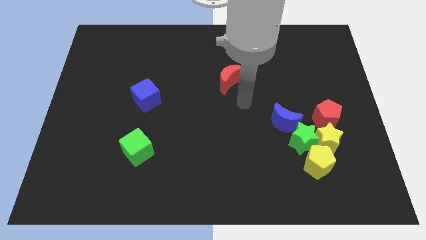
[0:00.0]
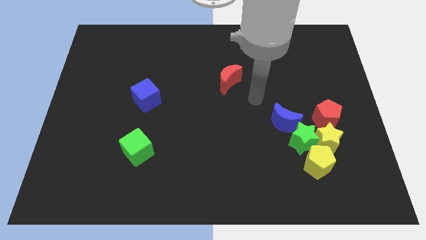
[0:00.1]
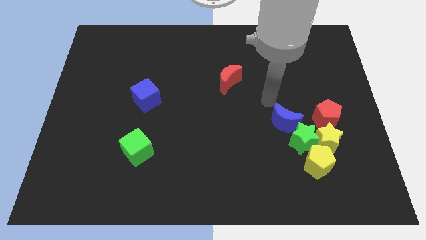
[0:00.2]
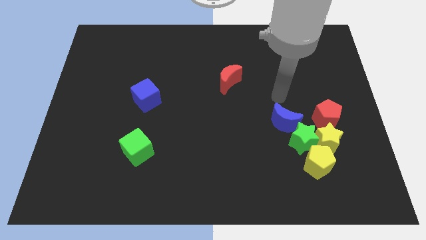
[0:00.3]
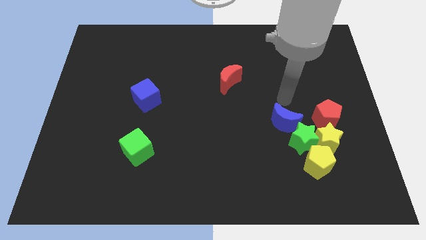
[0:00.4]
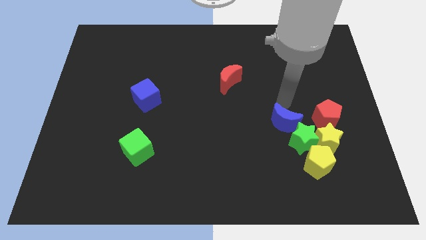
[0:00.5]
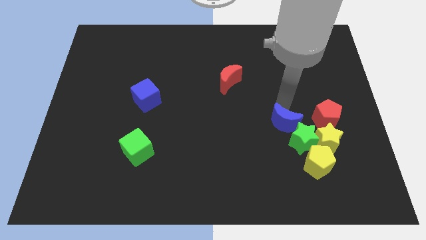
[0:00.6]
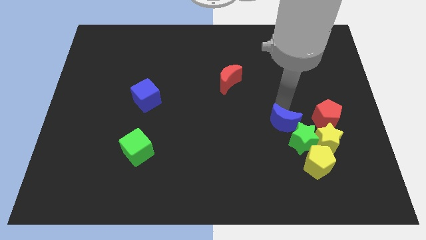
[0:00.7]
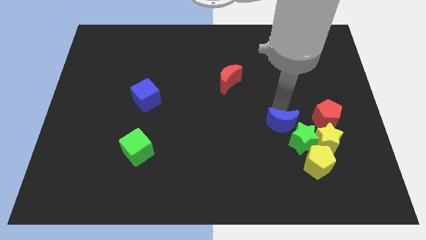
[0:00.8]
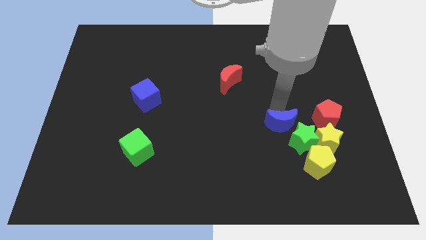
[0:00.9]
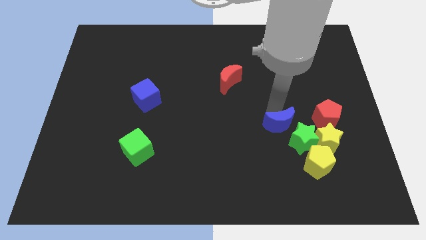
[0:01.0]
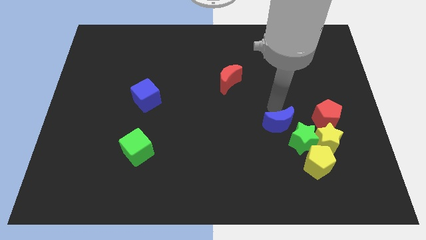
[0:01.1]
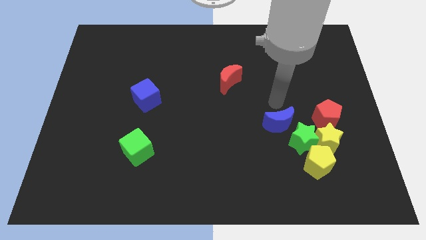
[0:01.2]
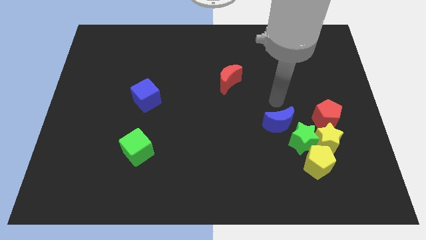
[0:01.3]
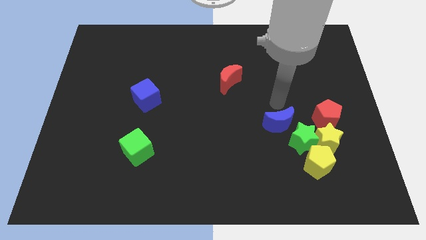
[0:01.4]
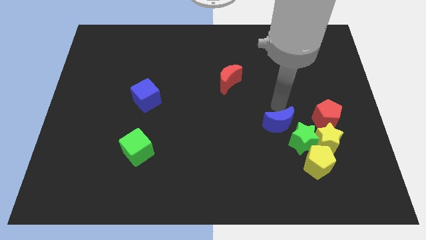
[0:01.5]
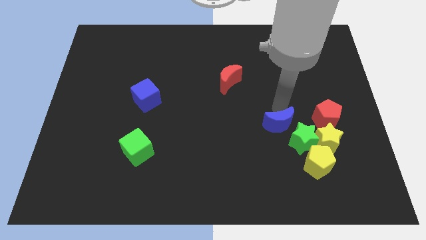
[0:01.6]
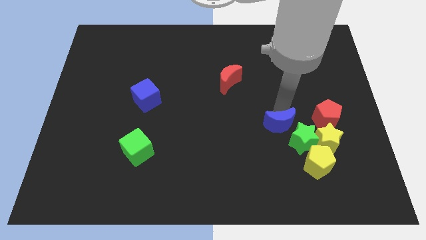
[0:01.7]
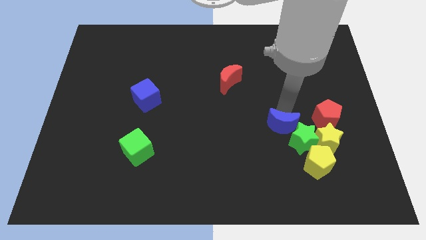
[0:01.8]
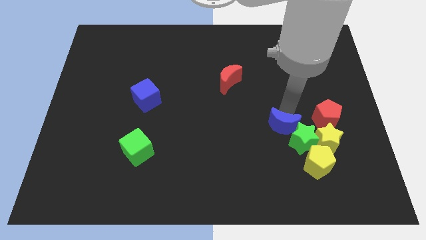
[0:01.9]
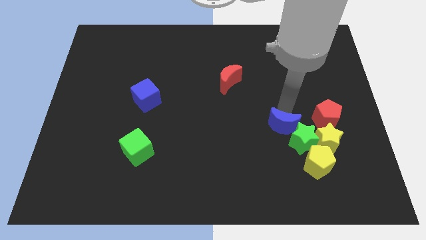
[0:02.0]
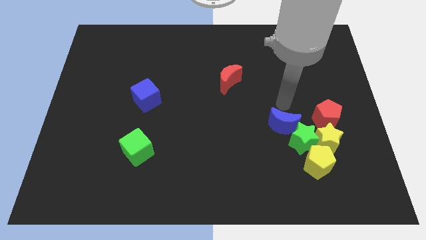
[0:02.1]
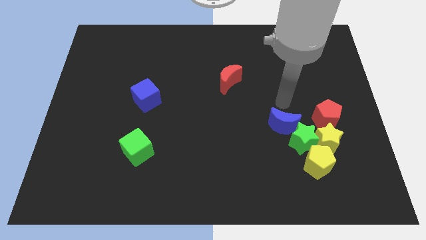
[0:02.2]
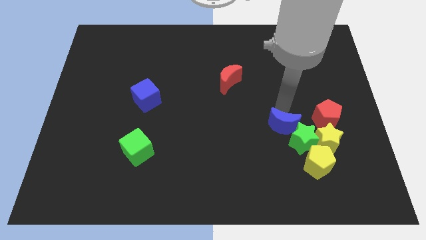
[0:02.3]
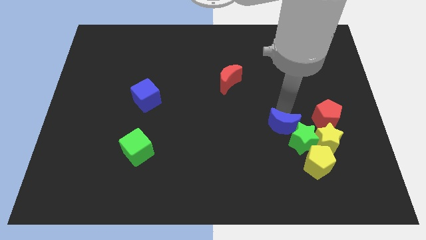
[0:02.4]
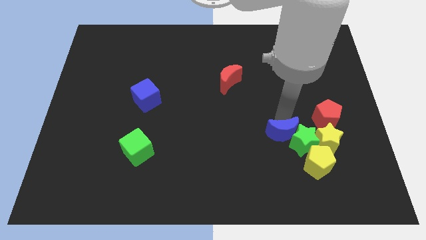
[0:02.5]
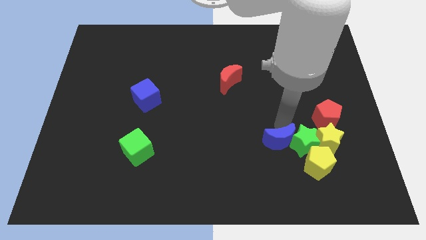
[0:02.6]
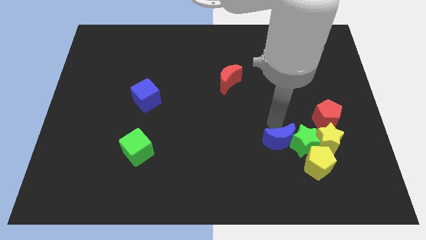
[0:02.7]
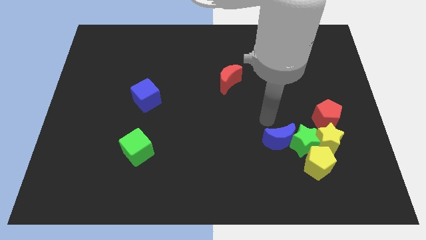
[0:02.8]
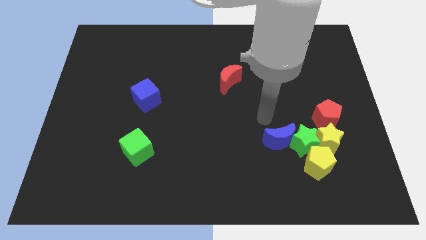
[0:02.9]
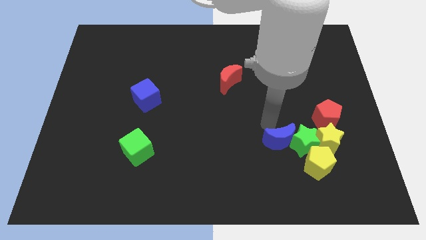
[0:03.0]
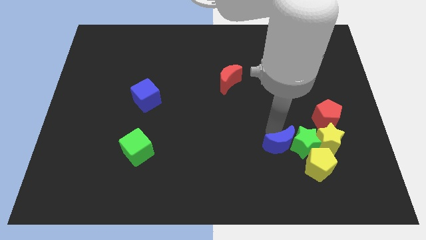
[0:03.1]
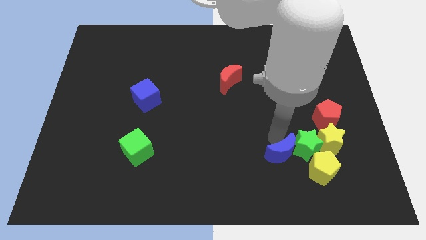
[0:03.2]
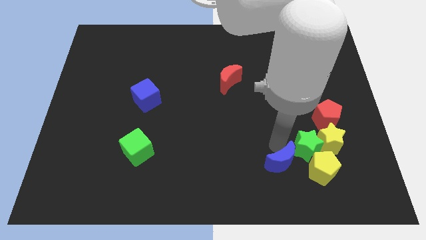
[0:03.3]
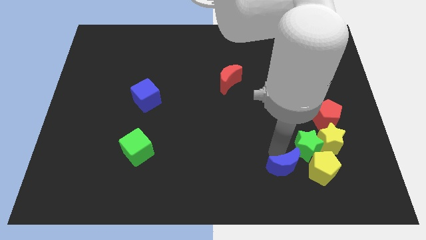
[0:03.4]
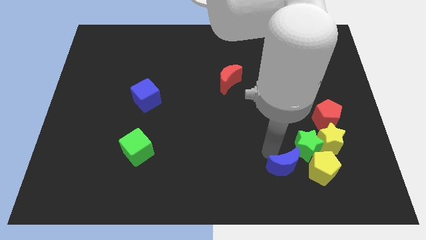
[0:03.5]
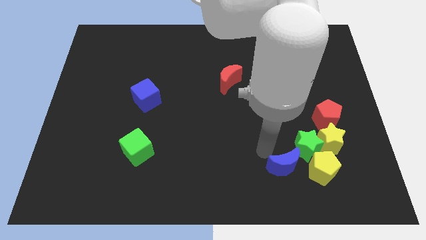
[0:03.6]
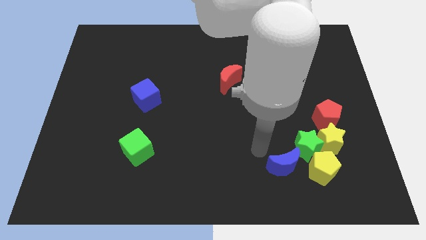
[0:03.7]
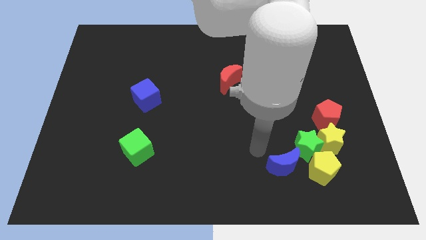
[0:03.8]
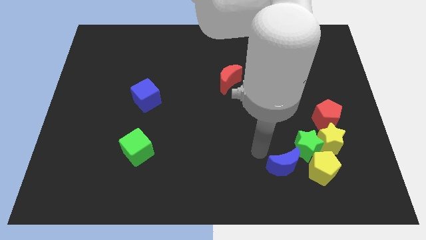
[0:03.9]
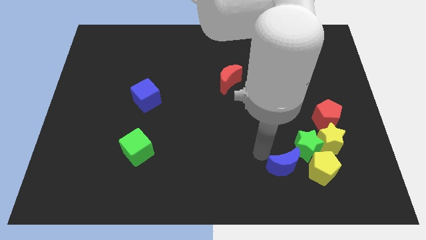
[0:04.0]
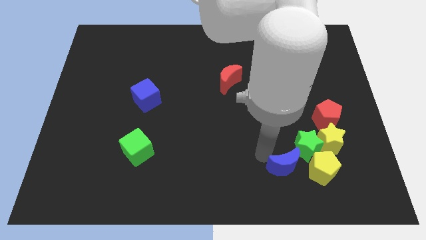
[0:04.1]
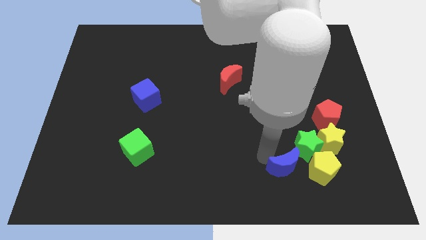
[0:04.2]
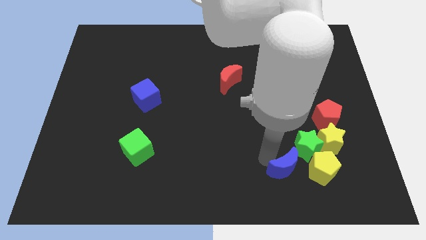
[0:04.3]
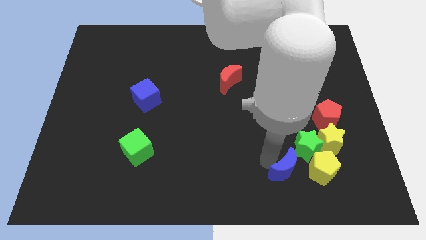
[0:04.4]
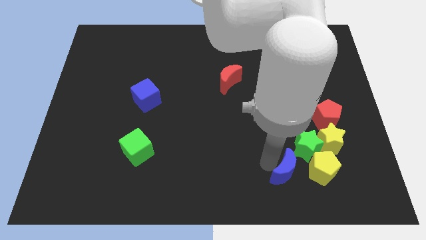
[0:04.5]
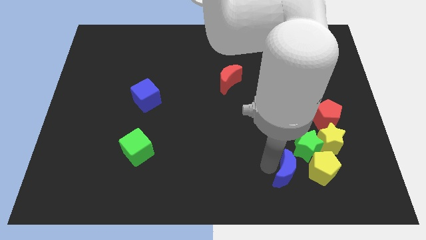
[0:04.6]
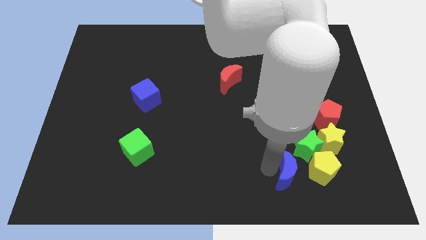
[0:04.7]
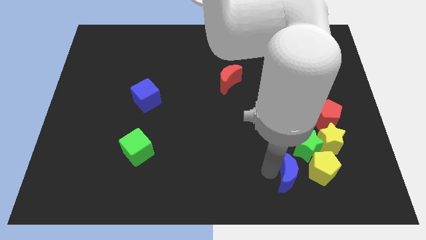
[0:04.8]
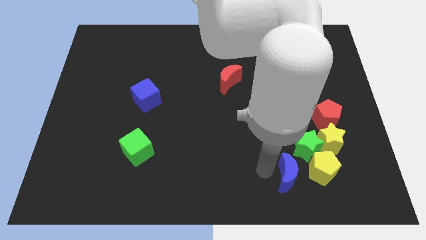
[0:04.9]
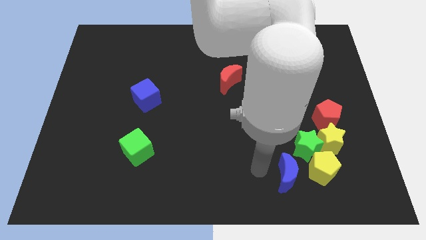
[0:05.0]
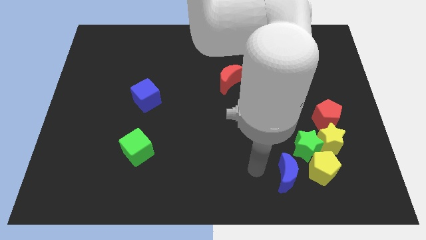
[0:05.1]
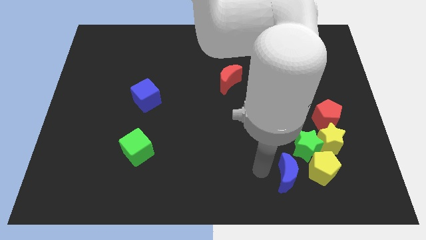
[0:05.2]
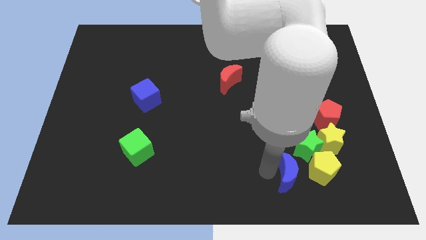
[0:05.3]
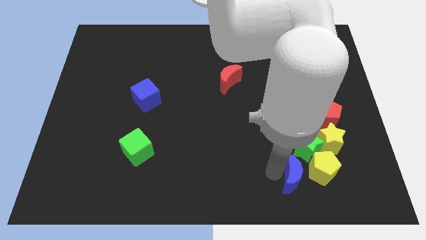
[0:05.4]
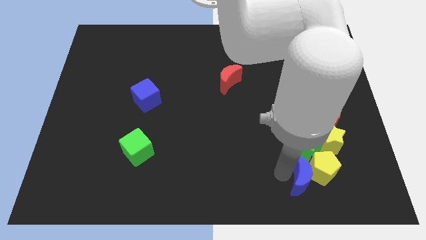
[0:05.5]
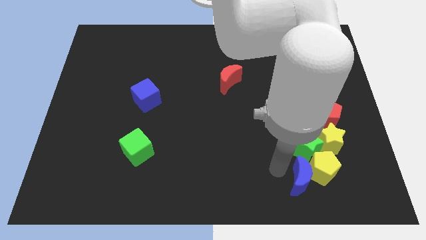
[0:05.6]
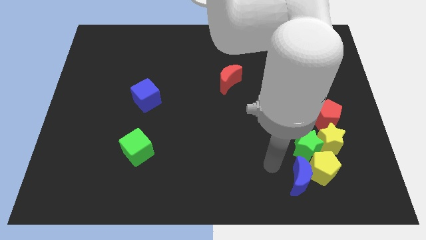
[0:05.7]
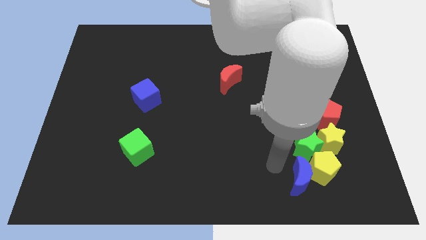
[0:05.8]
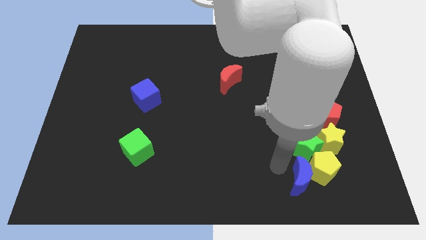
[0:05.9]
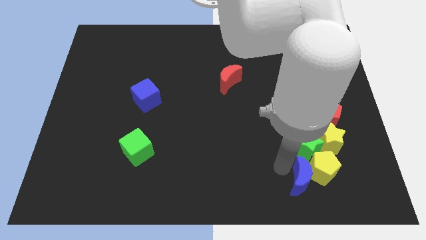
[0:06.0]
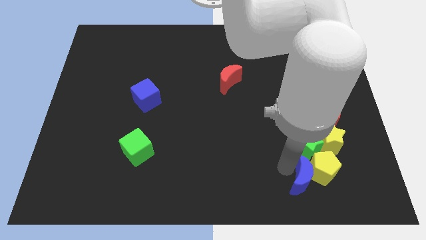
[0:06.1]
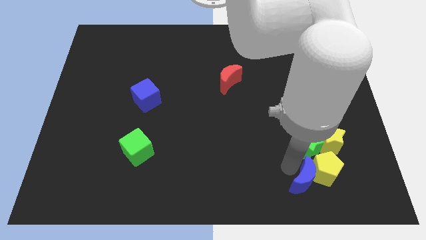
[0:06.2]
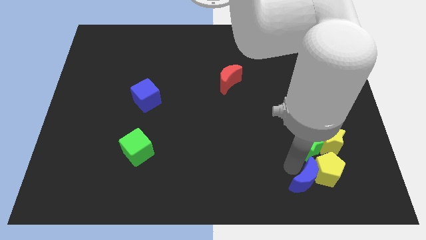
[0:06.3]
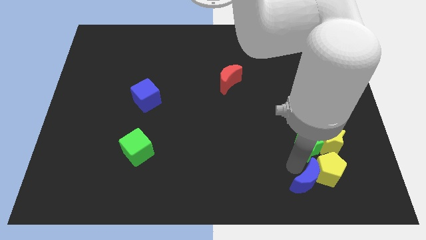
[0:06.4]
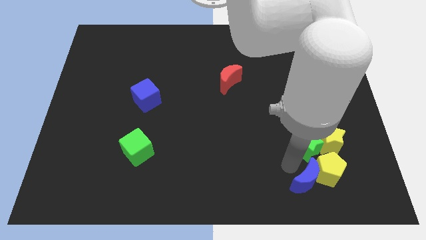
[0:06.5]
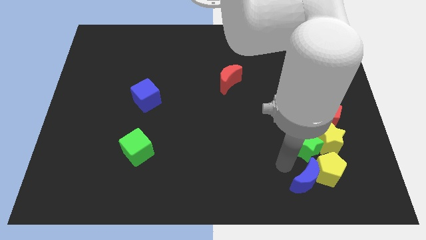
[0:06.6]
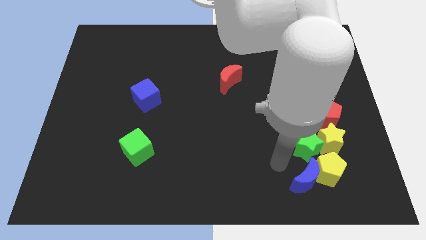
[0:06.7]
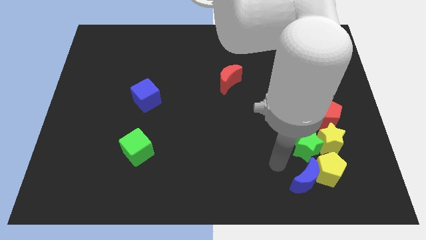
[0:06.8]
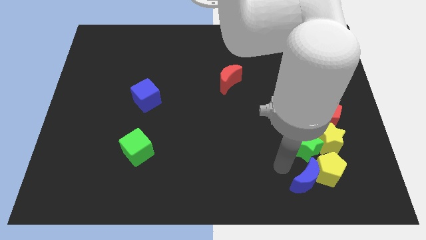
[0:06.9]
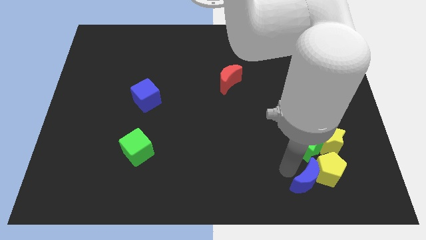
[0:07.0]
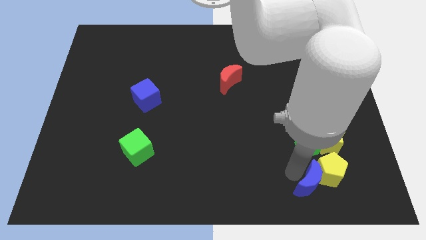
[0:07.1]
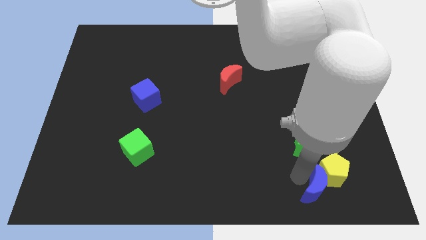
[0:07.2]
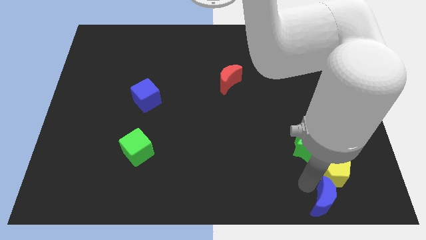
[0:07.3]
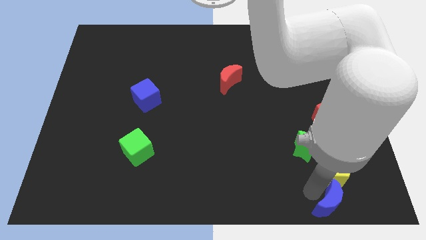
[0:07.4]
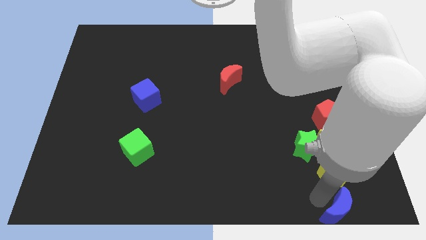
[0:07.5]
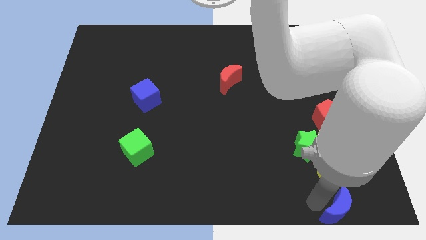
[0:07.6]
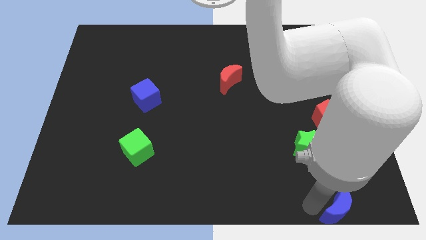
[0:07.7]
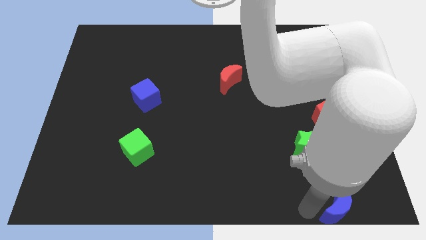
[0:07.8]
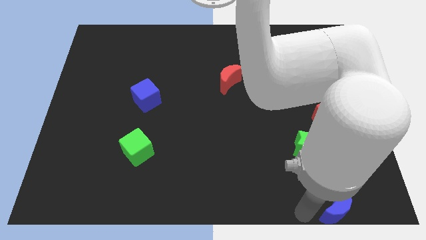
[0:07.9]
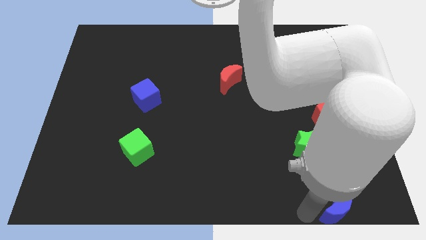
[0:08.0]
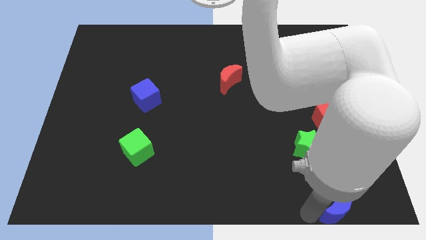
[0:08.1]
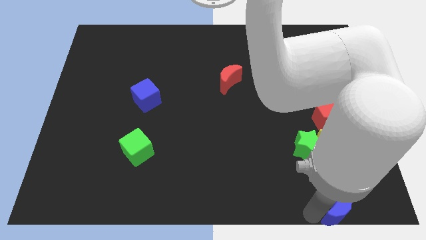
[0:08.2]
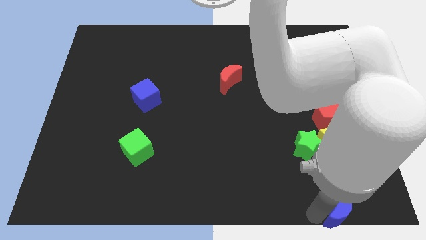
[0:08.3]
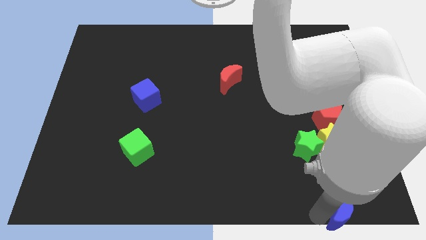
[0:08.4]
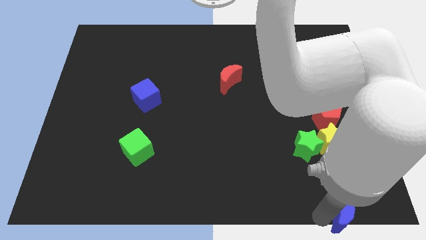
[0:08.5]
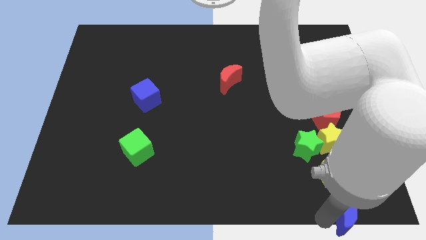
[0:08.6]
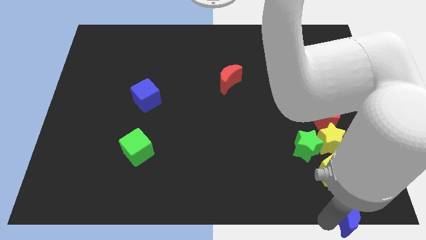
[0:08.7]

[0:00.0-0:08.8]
put the blue moon to the lower right corner
